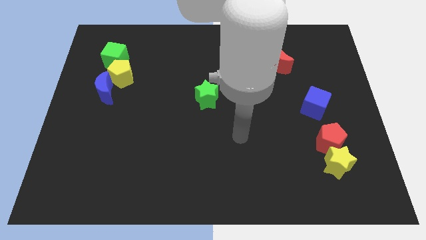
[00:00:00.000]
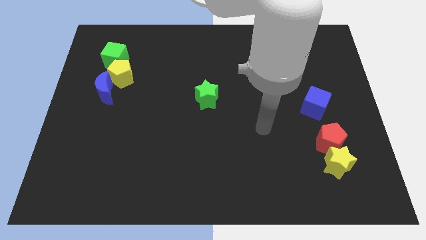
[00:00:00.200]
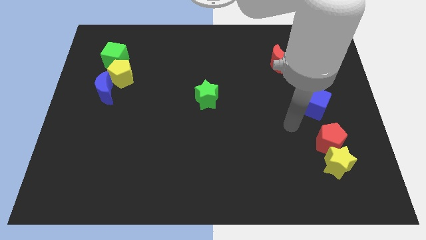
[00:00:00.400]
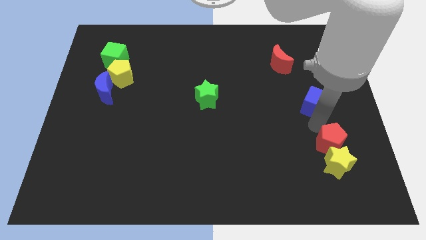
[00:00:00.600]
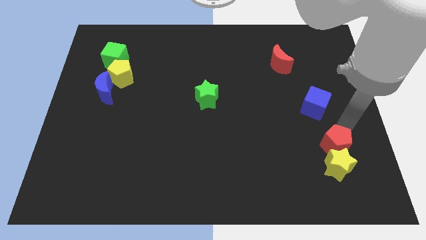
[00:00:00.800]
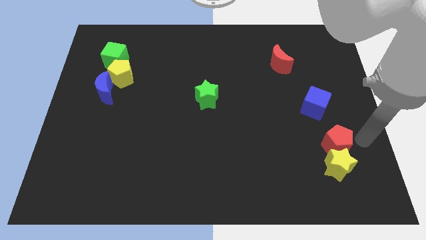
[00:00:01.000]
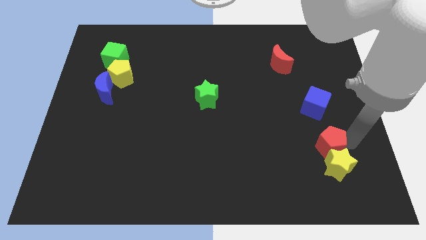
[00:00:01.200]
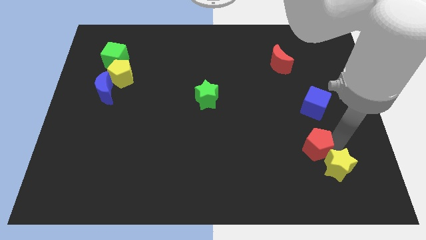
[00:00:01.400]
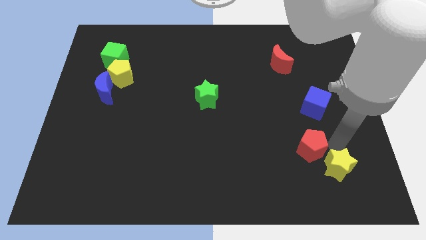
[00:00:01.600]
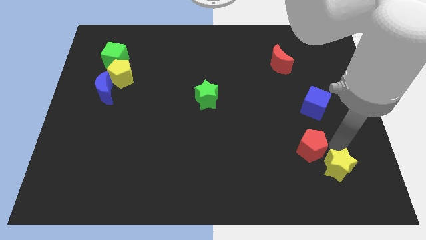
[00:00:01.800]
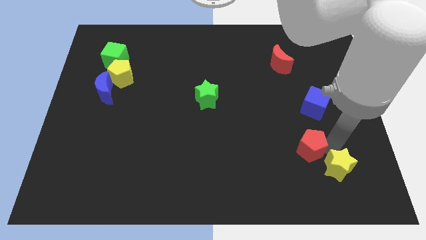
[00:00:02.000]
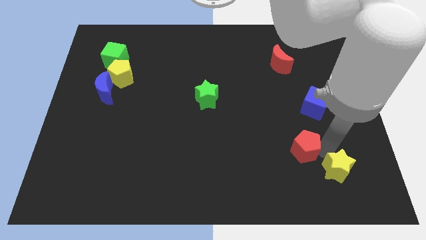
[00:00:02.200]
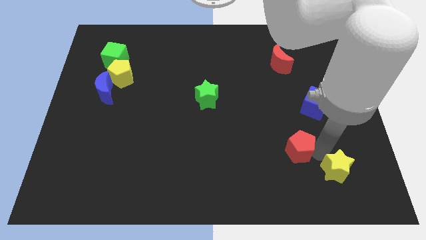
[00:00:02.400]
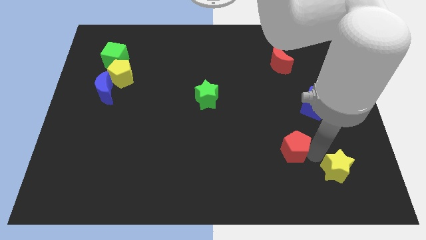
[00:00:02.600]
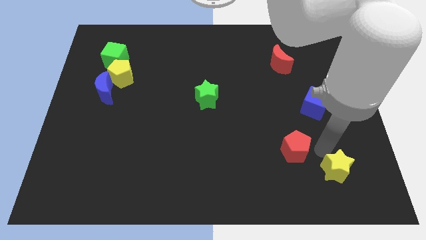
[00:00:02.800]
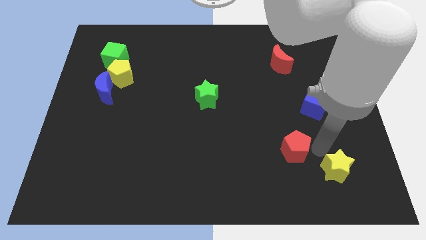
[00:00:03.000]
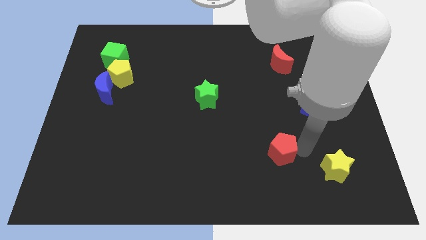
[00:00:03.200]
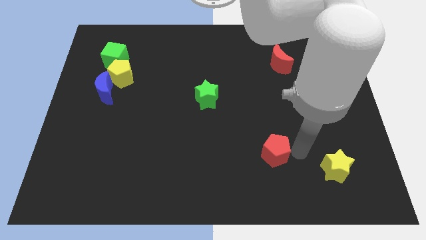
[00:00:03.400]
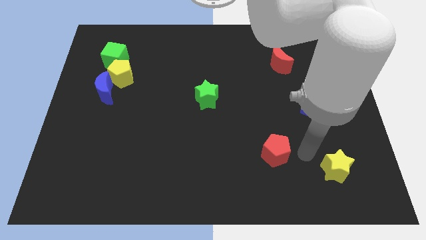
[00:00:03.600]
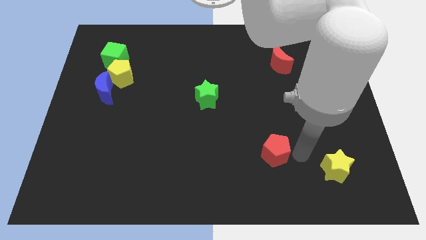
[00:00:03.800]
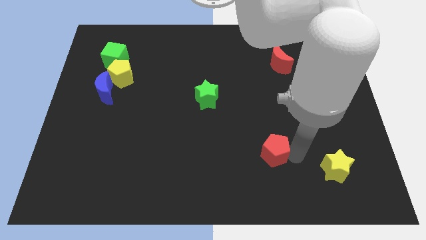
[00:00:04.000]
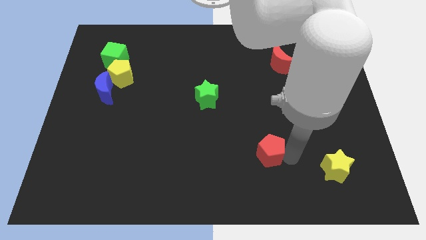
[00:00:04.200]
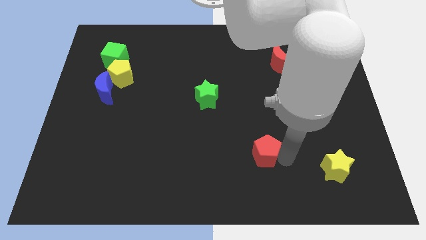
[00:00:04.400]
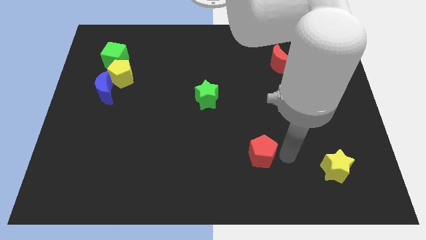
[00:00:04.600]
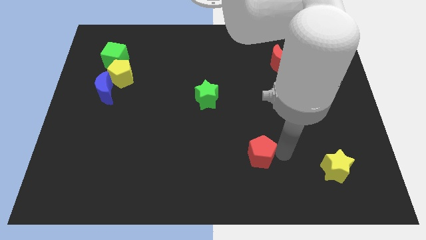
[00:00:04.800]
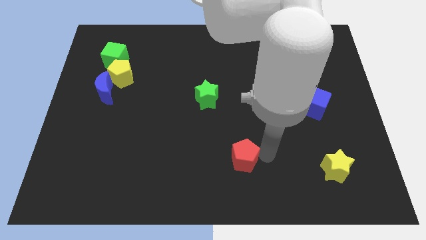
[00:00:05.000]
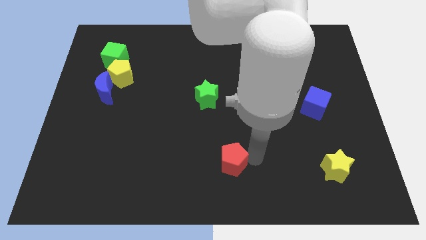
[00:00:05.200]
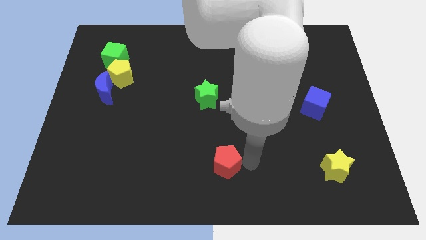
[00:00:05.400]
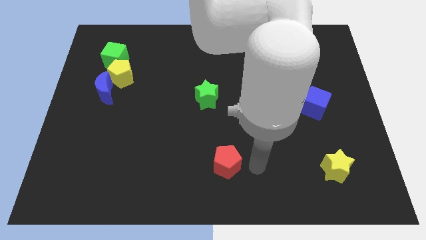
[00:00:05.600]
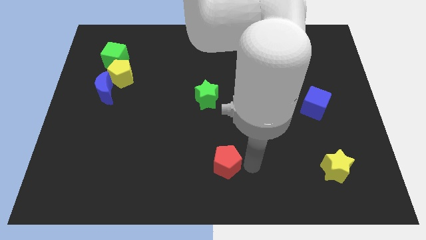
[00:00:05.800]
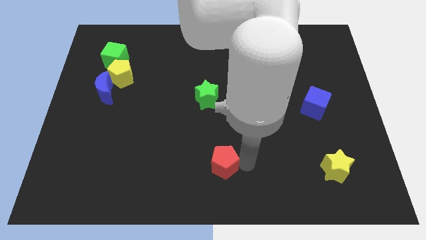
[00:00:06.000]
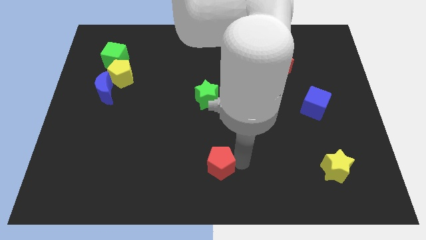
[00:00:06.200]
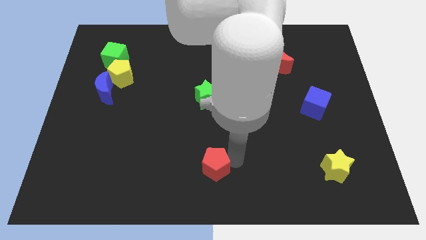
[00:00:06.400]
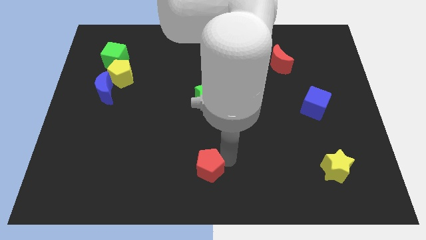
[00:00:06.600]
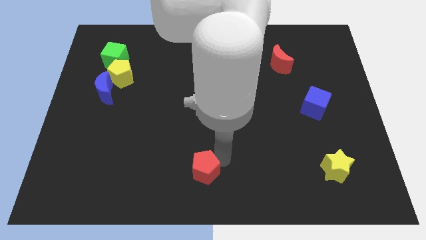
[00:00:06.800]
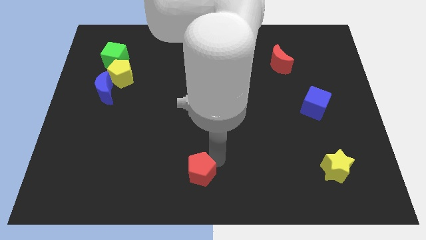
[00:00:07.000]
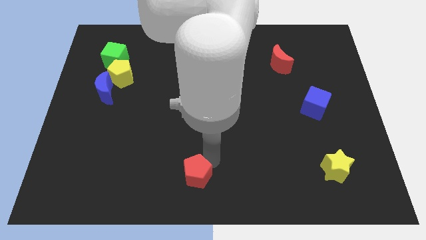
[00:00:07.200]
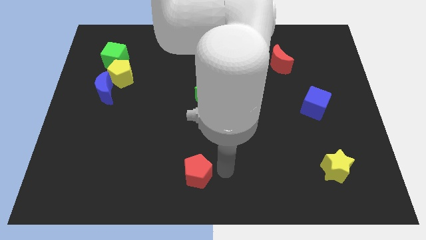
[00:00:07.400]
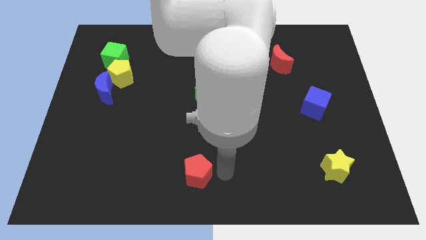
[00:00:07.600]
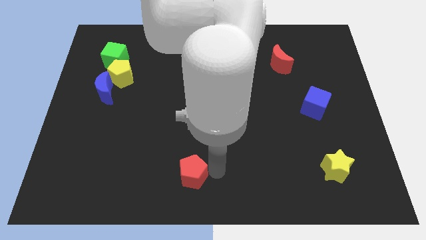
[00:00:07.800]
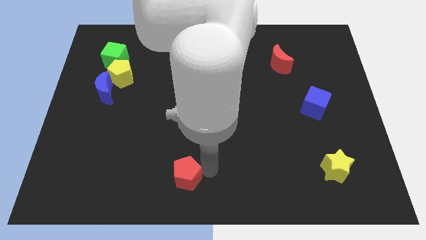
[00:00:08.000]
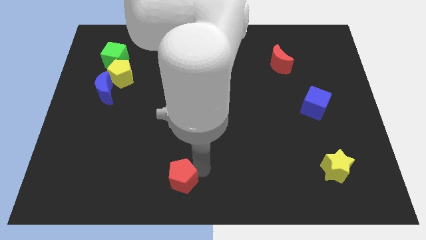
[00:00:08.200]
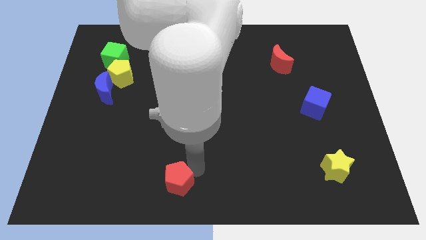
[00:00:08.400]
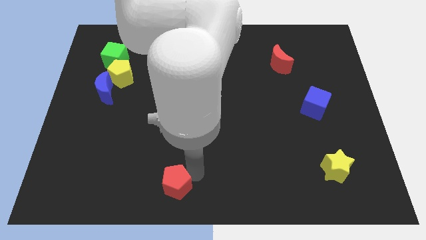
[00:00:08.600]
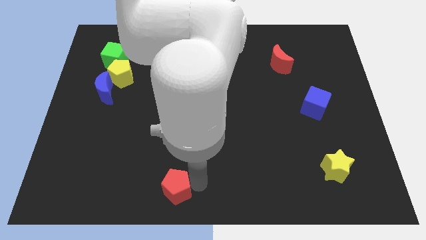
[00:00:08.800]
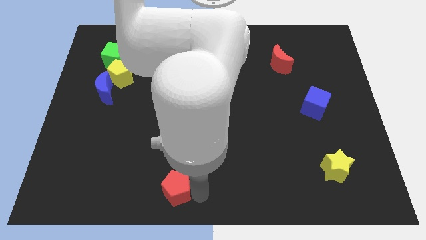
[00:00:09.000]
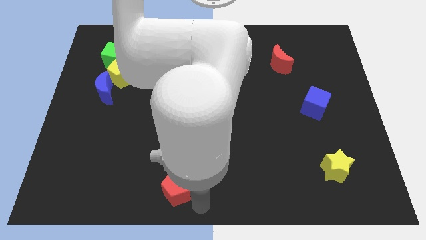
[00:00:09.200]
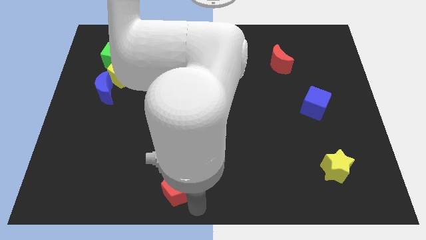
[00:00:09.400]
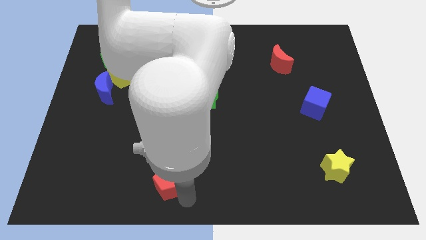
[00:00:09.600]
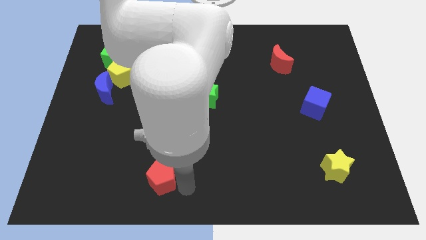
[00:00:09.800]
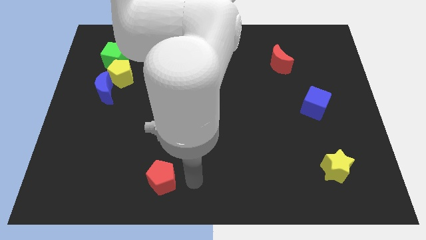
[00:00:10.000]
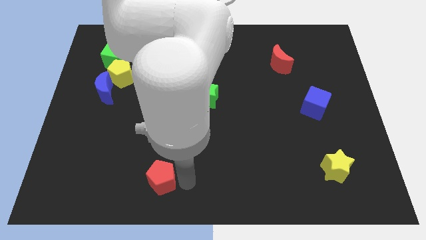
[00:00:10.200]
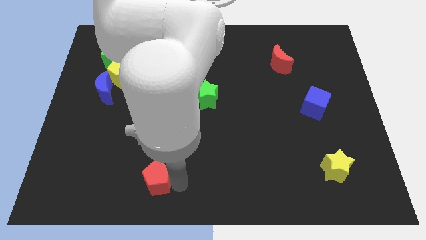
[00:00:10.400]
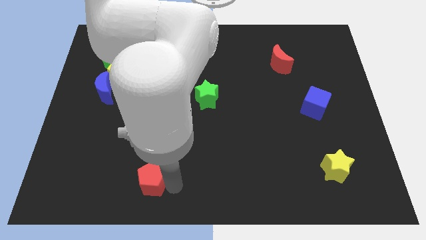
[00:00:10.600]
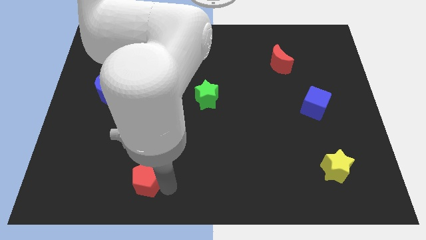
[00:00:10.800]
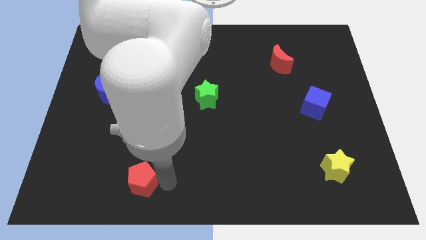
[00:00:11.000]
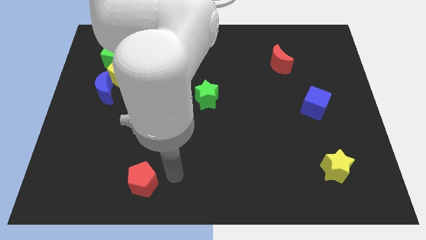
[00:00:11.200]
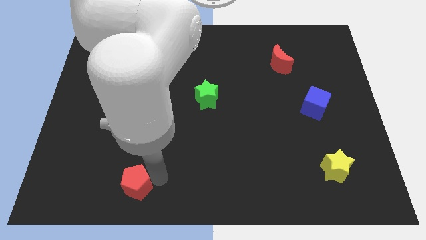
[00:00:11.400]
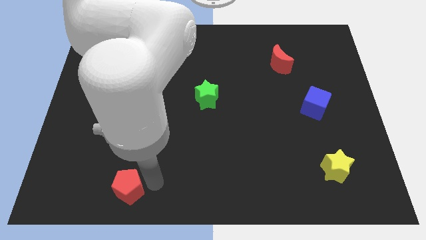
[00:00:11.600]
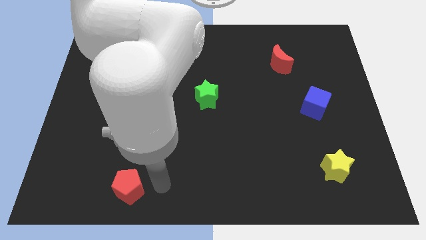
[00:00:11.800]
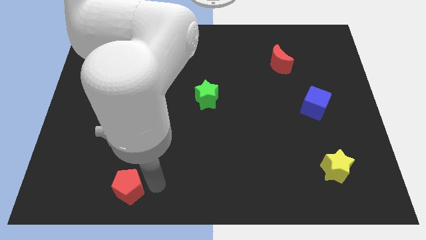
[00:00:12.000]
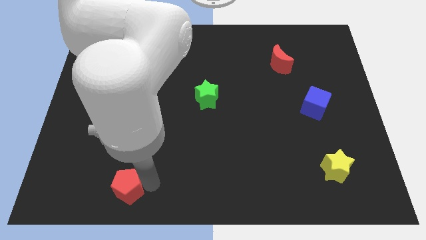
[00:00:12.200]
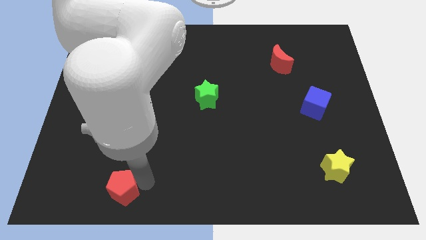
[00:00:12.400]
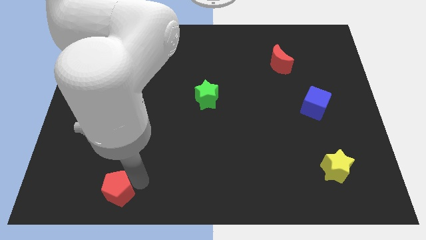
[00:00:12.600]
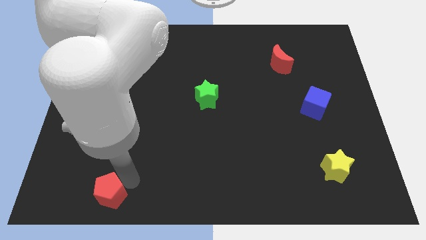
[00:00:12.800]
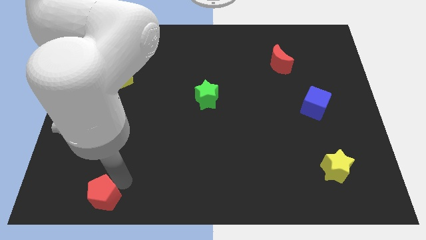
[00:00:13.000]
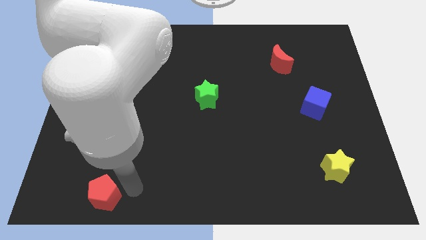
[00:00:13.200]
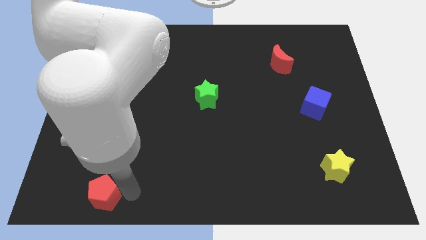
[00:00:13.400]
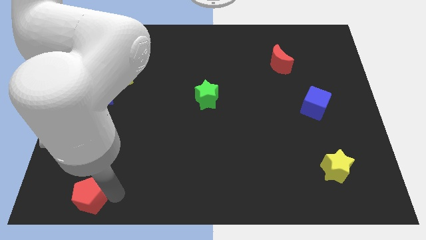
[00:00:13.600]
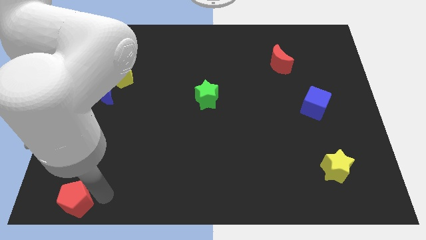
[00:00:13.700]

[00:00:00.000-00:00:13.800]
put the red pentagon to the bottom left
